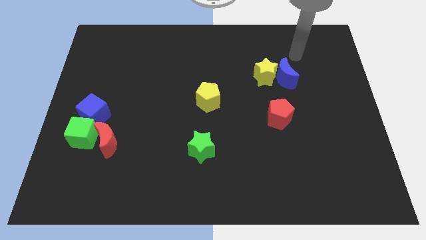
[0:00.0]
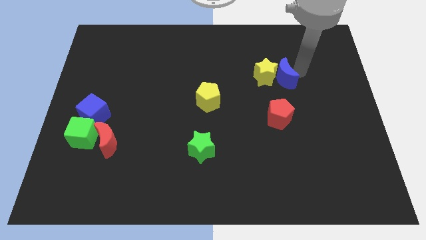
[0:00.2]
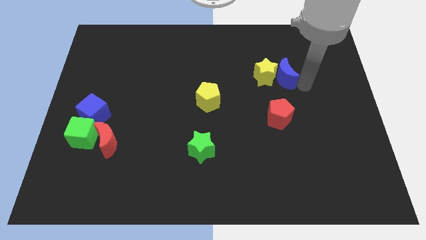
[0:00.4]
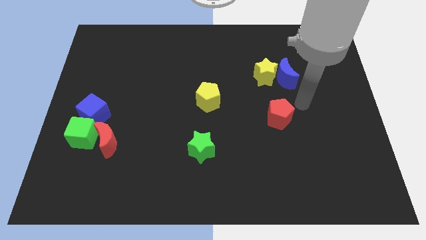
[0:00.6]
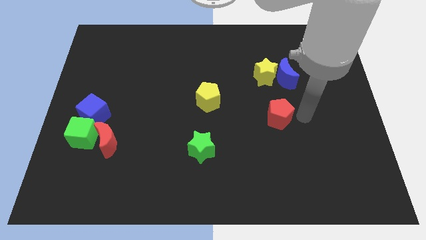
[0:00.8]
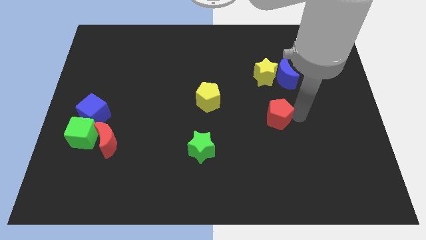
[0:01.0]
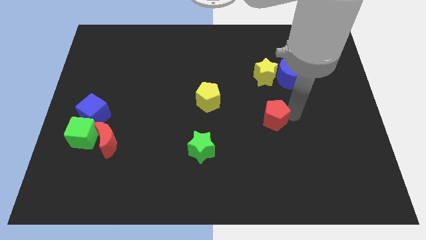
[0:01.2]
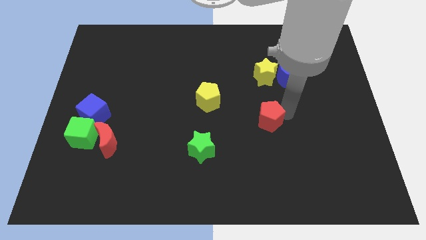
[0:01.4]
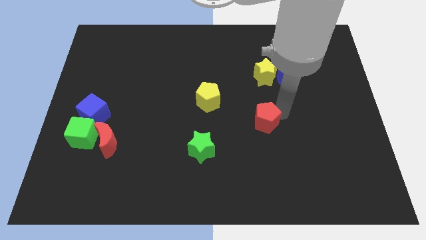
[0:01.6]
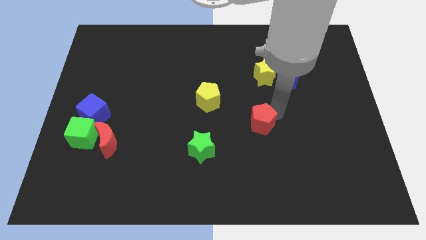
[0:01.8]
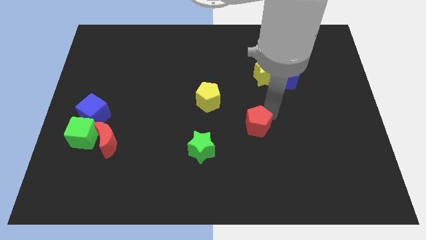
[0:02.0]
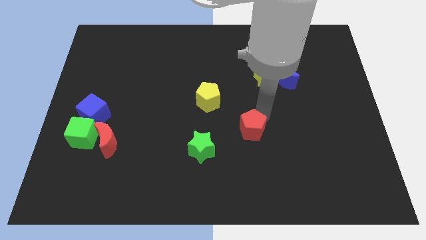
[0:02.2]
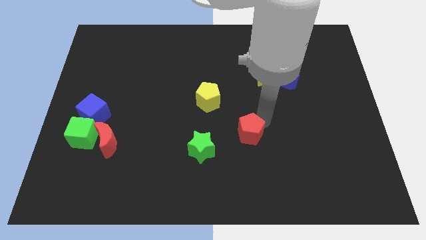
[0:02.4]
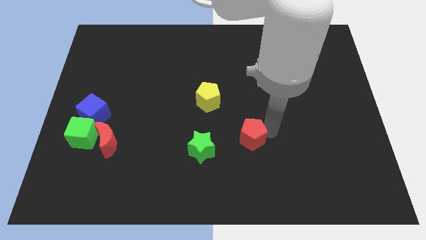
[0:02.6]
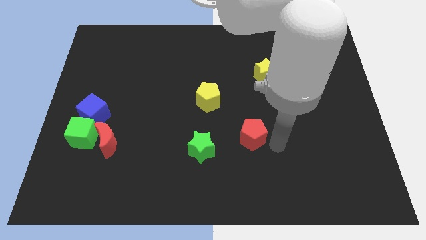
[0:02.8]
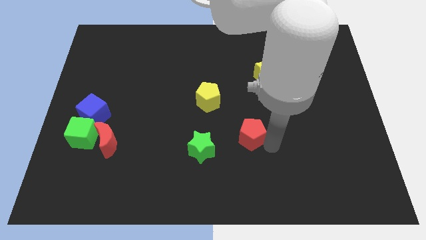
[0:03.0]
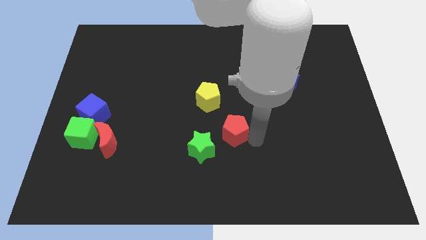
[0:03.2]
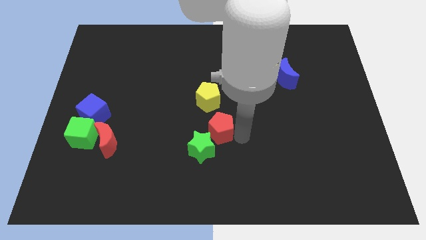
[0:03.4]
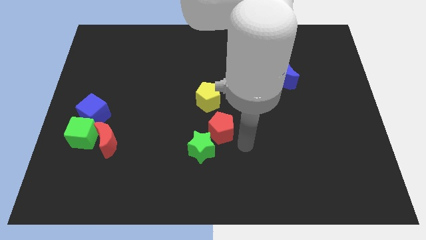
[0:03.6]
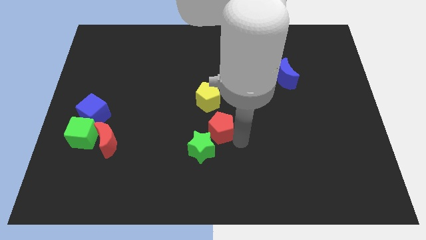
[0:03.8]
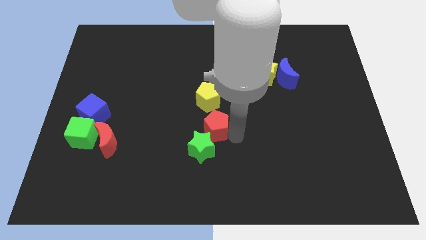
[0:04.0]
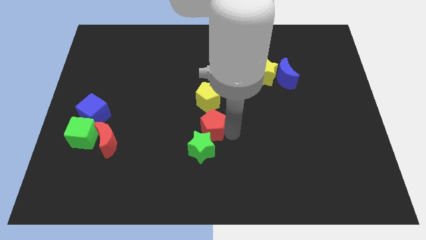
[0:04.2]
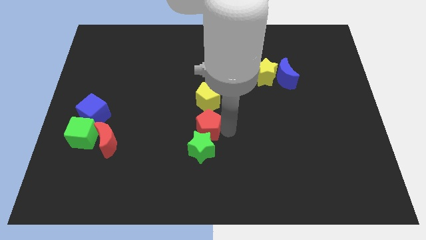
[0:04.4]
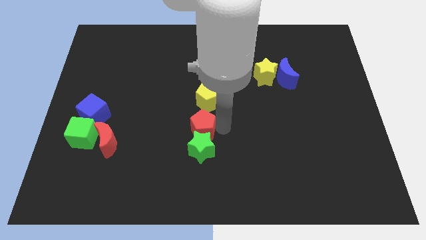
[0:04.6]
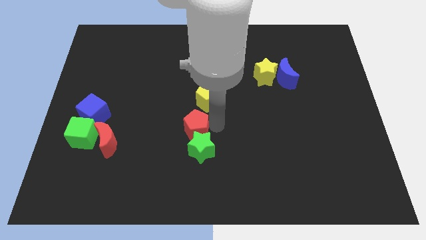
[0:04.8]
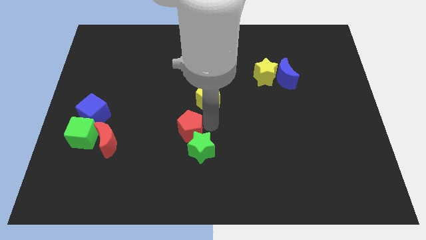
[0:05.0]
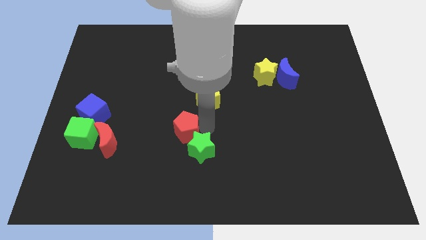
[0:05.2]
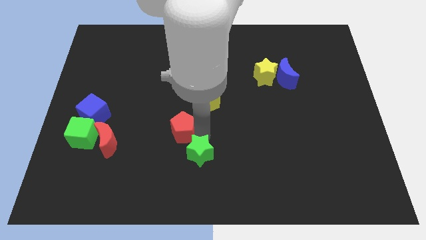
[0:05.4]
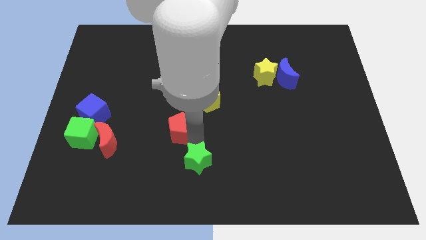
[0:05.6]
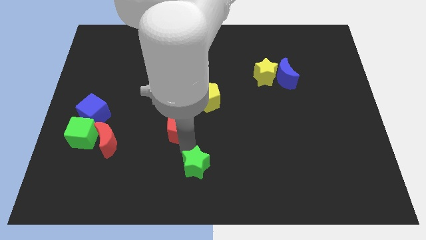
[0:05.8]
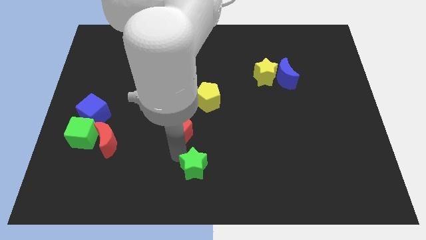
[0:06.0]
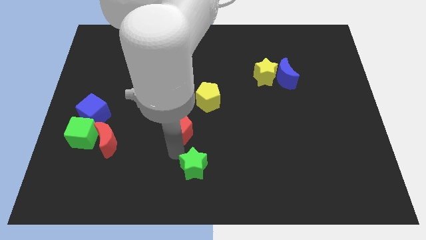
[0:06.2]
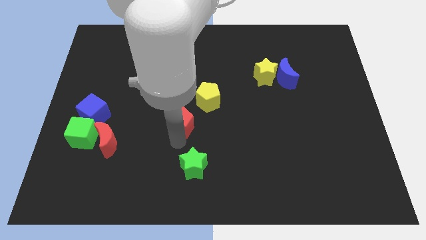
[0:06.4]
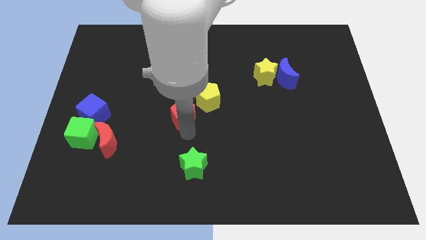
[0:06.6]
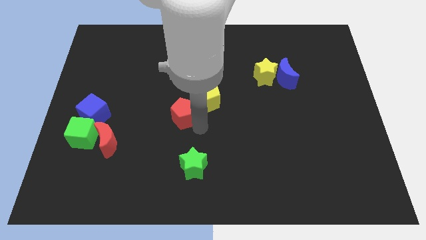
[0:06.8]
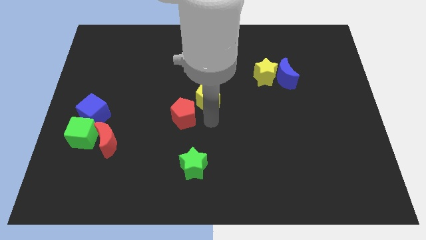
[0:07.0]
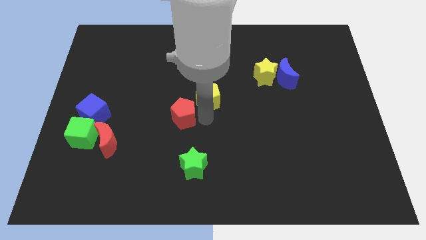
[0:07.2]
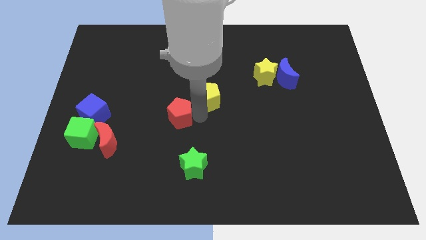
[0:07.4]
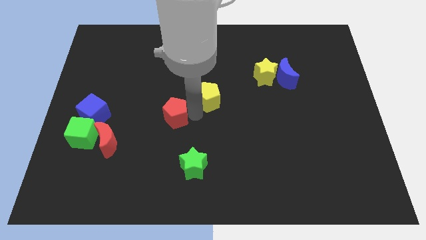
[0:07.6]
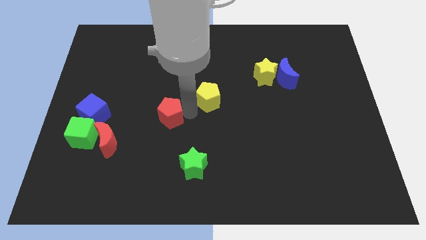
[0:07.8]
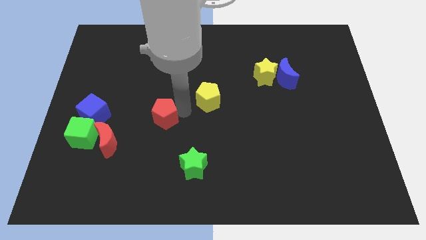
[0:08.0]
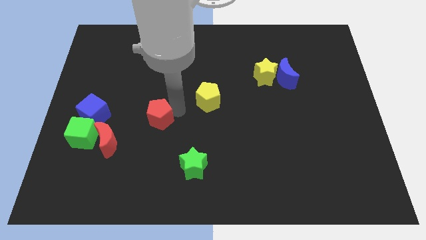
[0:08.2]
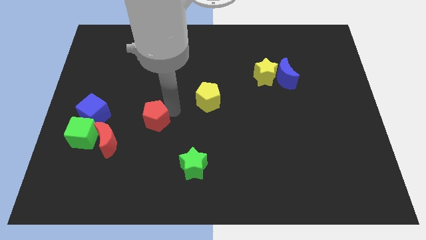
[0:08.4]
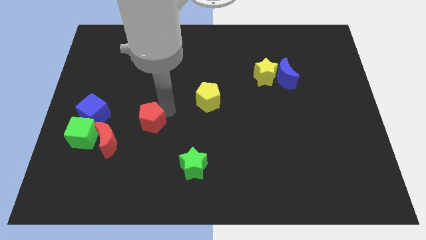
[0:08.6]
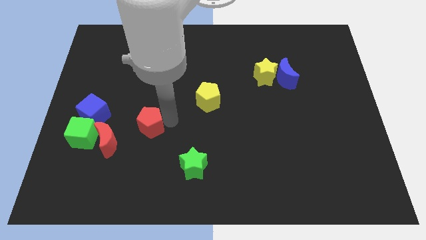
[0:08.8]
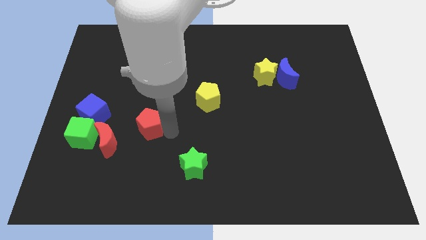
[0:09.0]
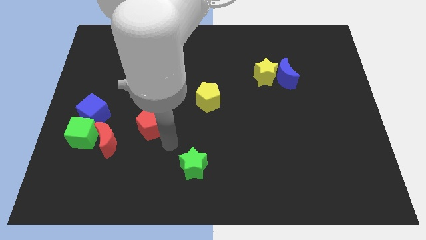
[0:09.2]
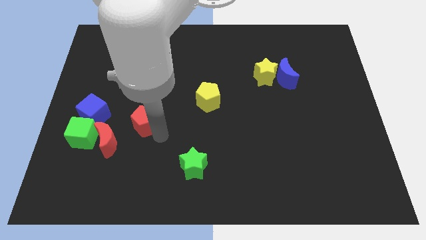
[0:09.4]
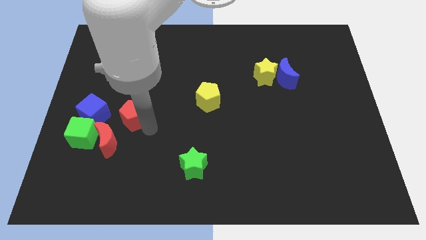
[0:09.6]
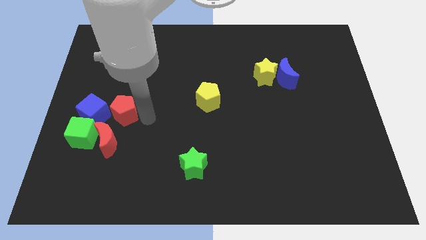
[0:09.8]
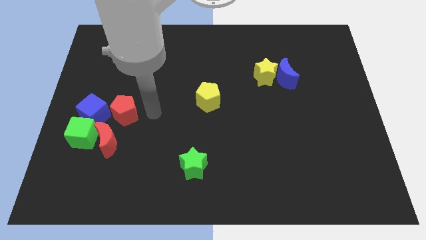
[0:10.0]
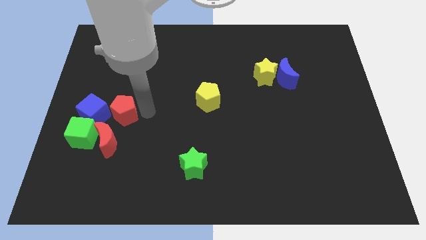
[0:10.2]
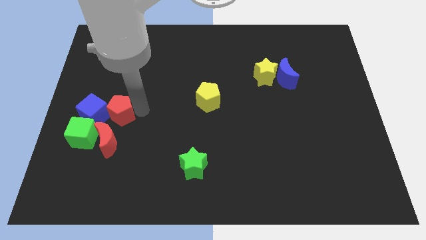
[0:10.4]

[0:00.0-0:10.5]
move the red pentagon next to the blue cube
